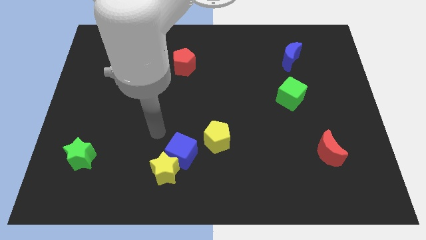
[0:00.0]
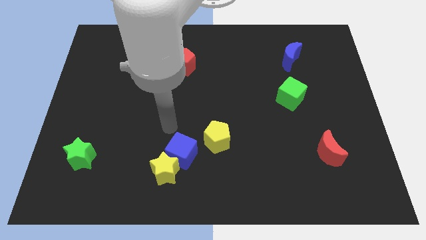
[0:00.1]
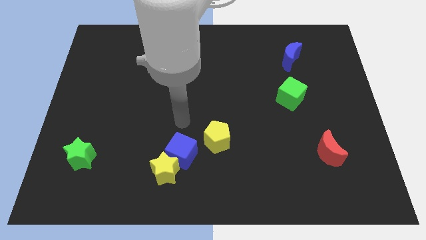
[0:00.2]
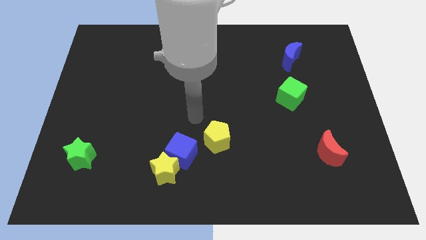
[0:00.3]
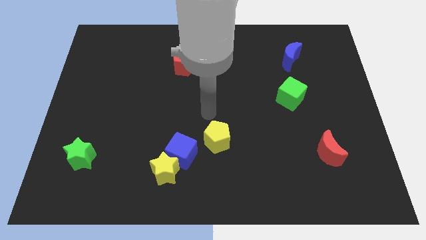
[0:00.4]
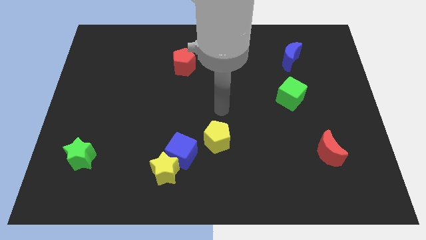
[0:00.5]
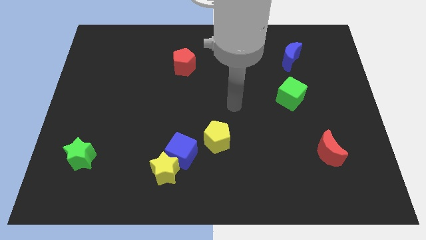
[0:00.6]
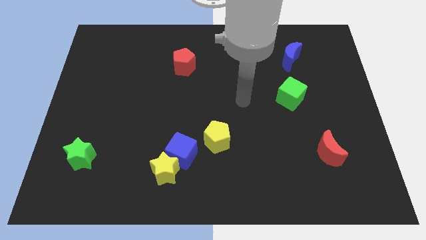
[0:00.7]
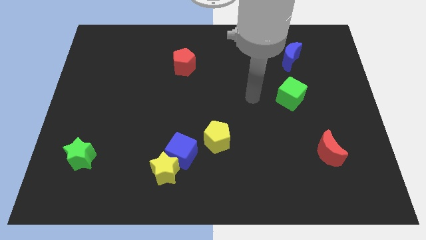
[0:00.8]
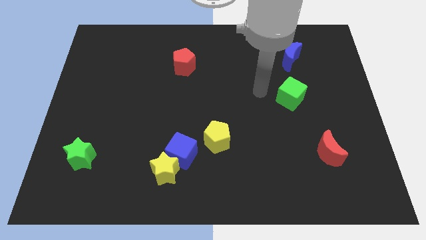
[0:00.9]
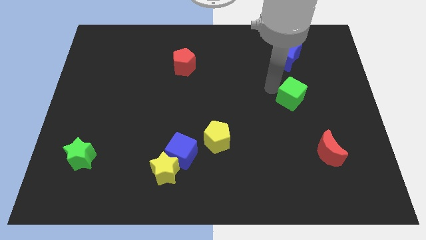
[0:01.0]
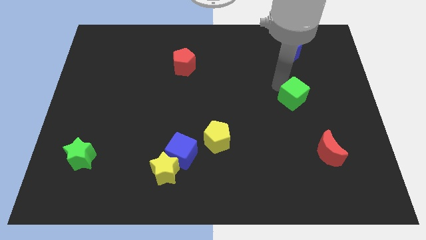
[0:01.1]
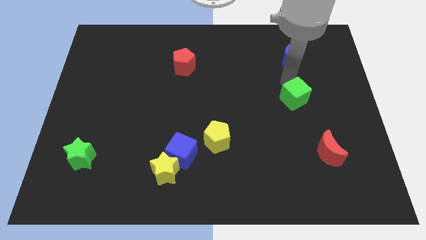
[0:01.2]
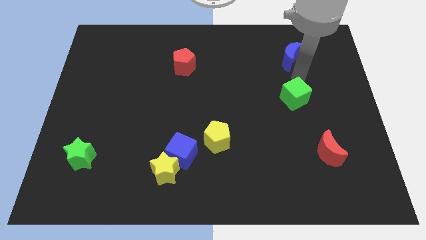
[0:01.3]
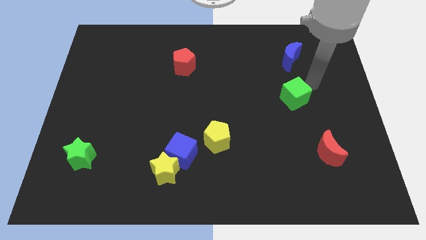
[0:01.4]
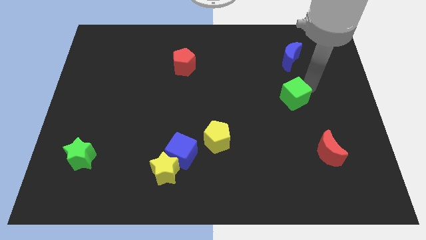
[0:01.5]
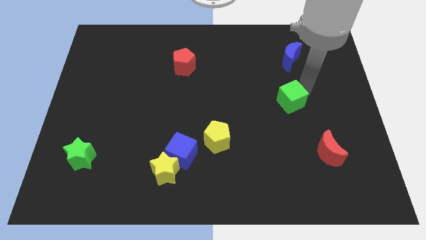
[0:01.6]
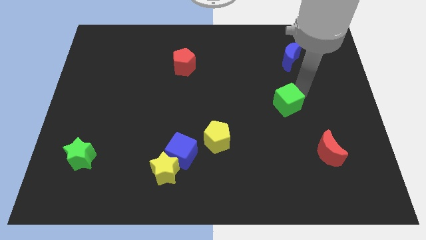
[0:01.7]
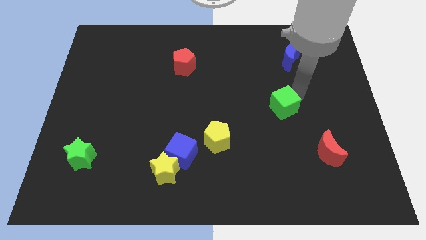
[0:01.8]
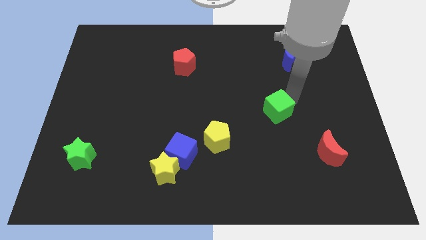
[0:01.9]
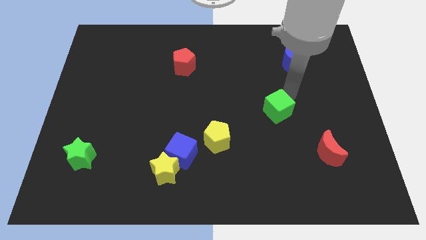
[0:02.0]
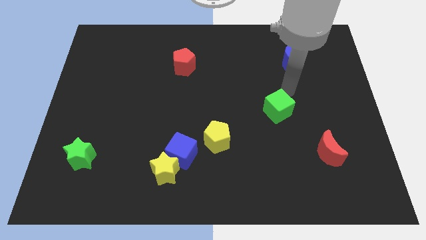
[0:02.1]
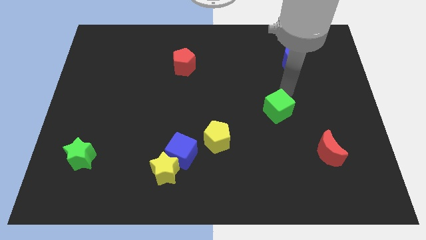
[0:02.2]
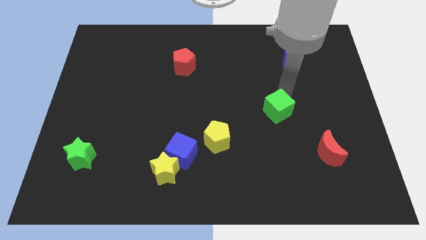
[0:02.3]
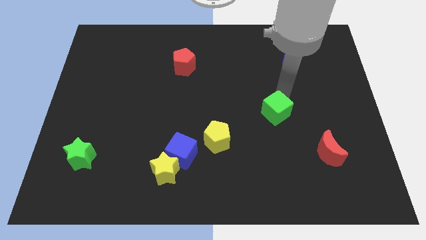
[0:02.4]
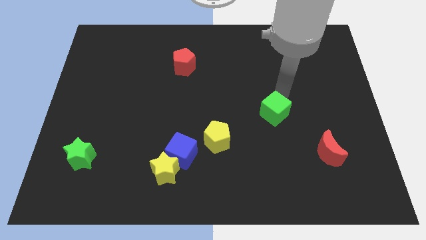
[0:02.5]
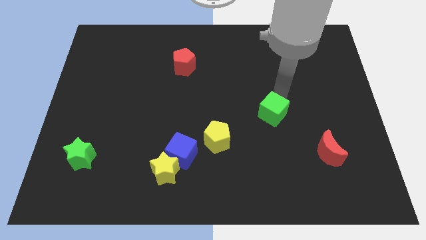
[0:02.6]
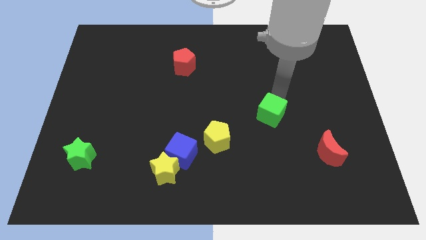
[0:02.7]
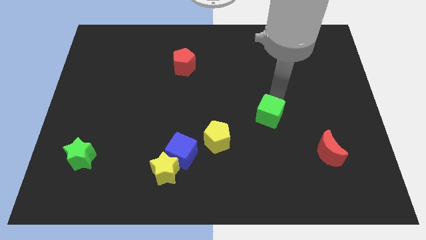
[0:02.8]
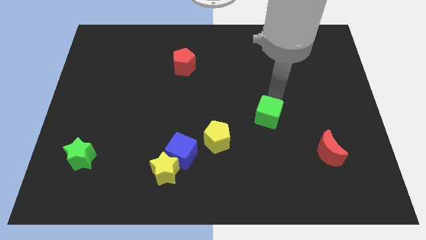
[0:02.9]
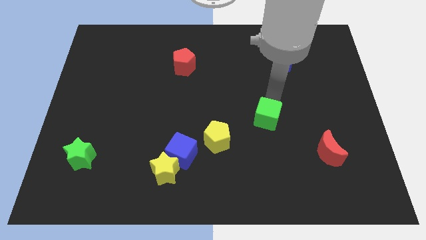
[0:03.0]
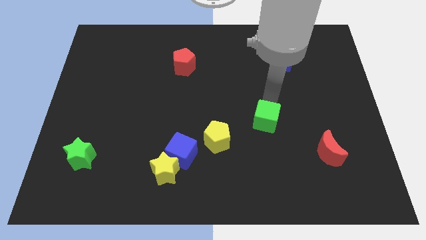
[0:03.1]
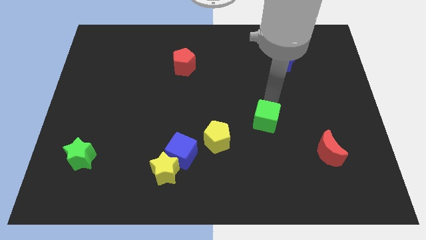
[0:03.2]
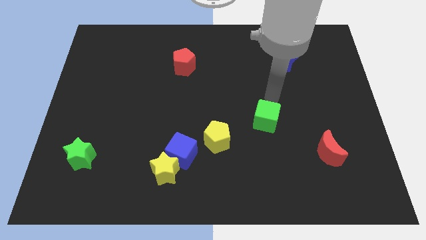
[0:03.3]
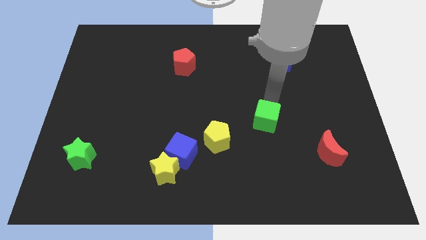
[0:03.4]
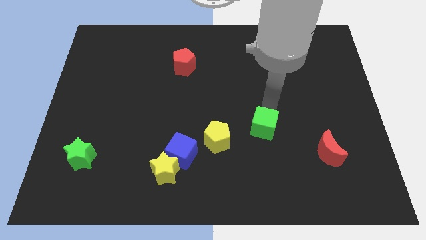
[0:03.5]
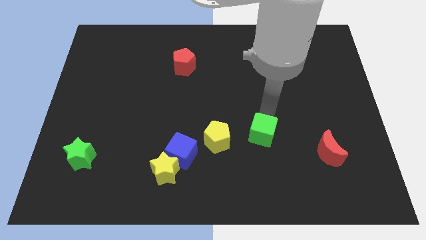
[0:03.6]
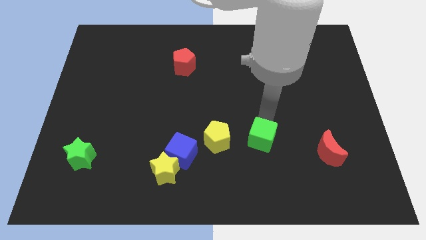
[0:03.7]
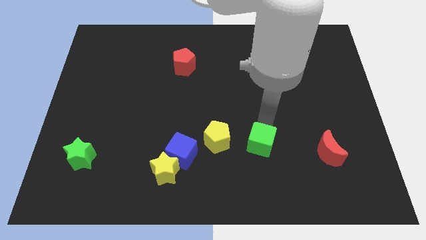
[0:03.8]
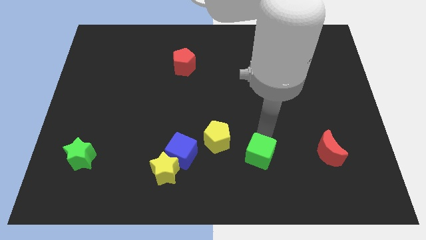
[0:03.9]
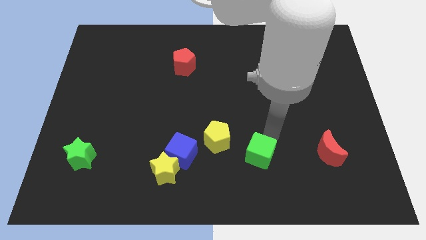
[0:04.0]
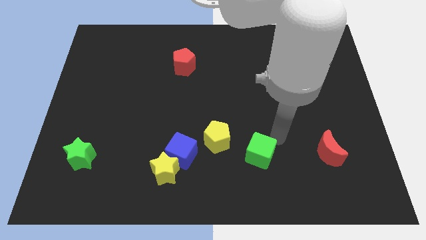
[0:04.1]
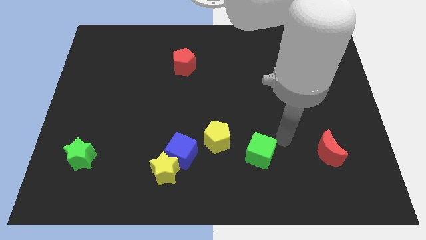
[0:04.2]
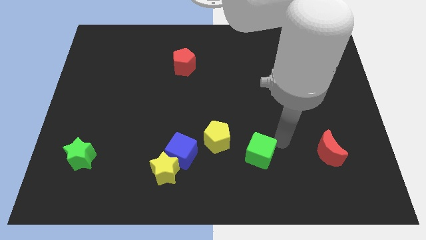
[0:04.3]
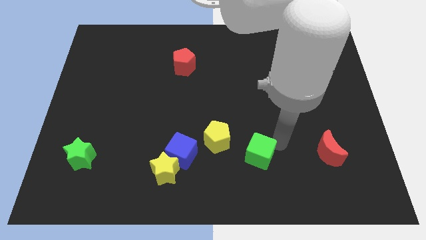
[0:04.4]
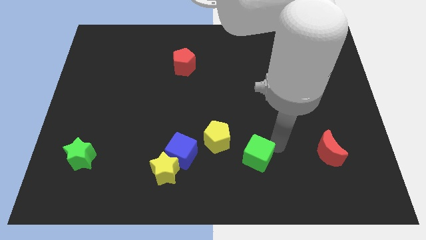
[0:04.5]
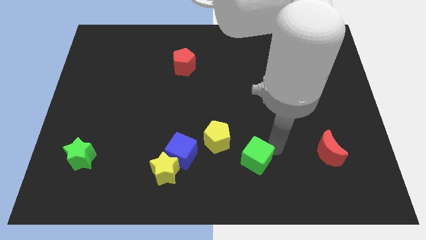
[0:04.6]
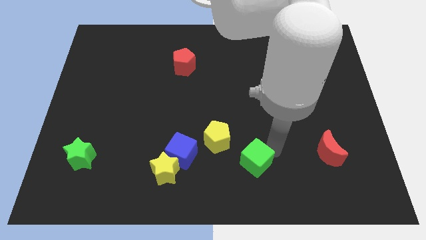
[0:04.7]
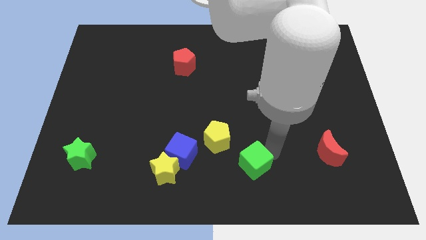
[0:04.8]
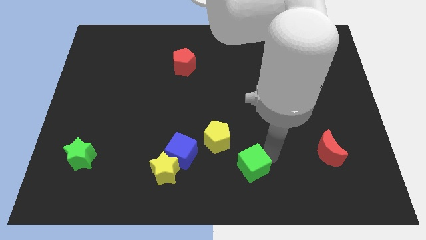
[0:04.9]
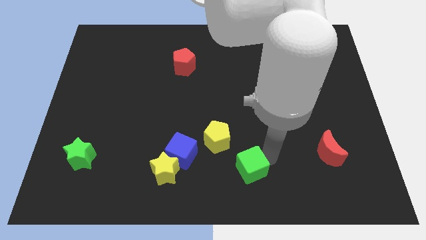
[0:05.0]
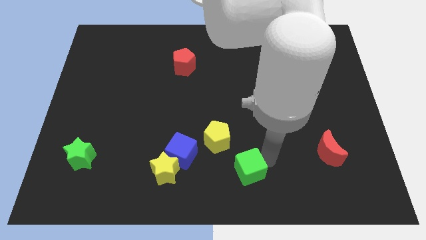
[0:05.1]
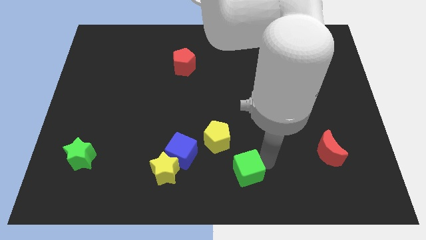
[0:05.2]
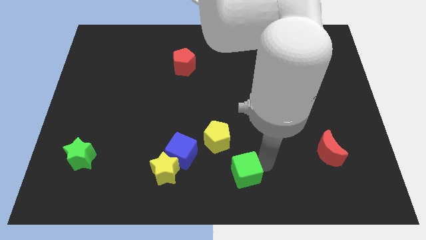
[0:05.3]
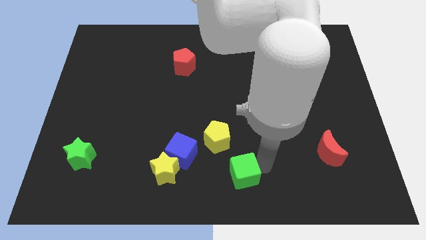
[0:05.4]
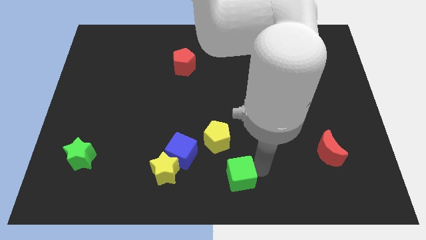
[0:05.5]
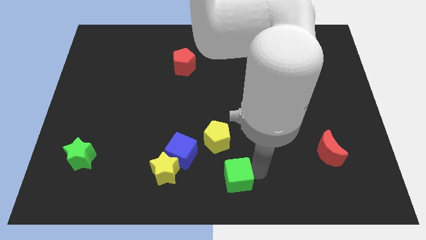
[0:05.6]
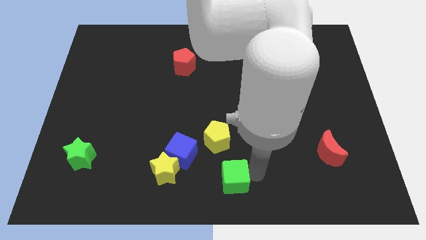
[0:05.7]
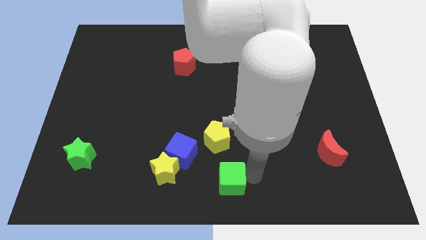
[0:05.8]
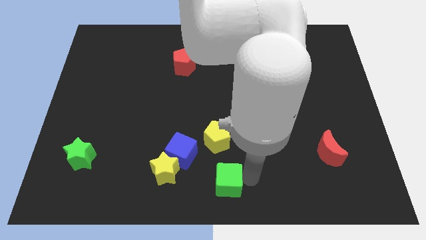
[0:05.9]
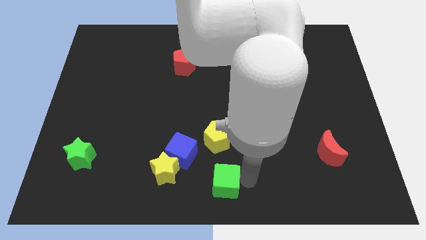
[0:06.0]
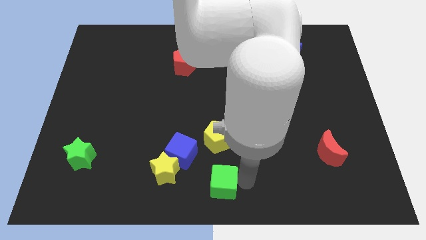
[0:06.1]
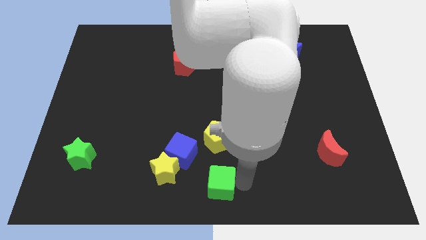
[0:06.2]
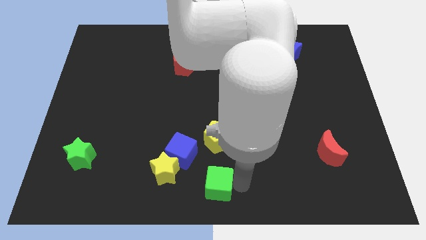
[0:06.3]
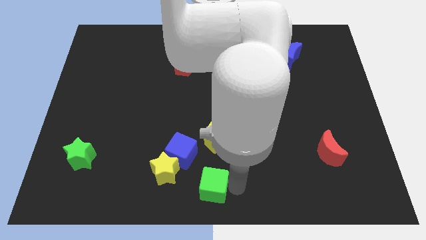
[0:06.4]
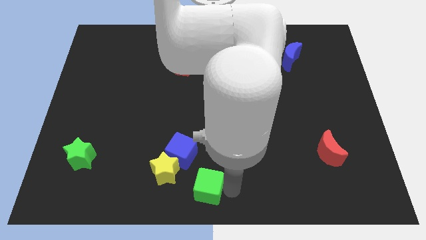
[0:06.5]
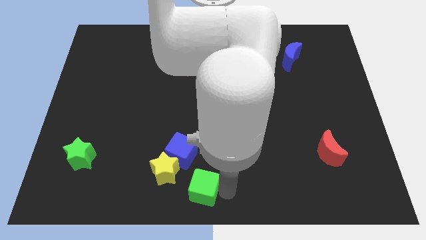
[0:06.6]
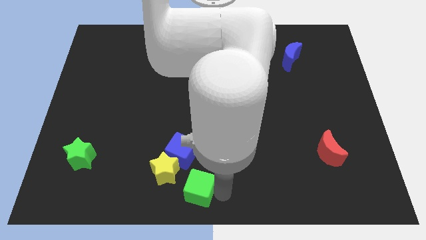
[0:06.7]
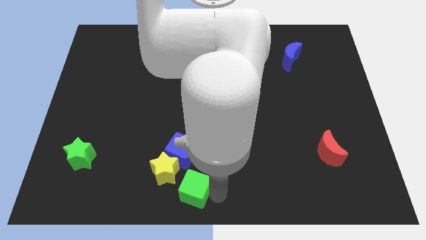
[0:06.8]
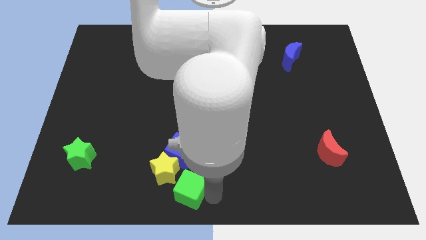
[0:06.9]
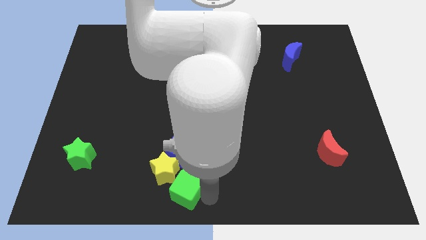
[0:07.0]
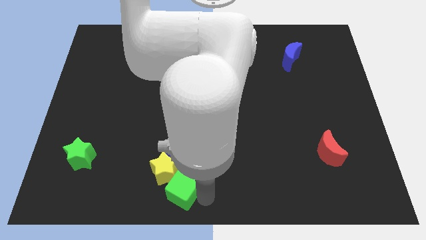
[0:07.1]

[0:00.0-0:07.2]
push the green cube towards the yellow star
